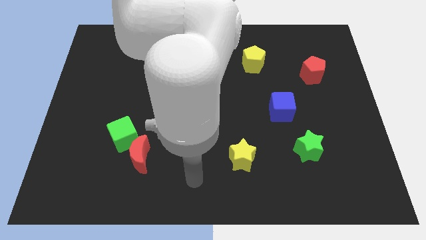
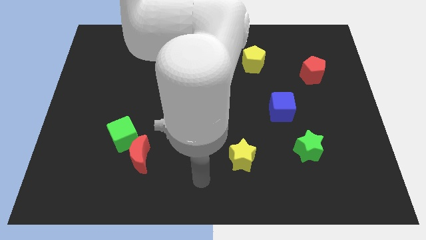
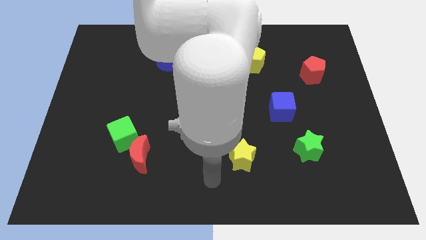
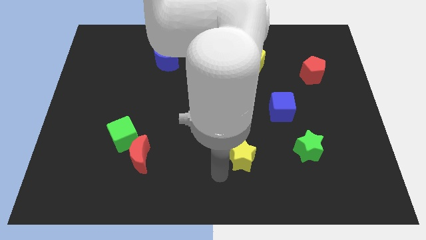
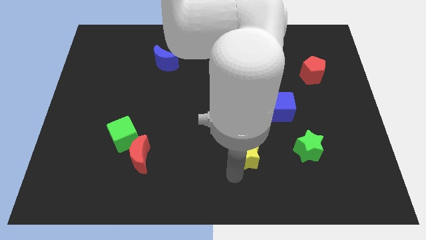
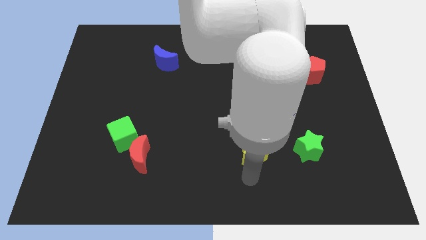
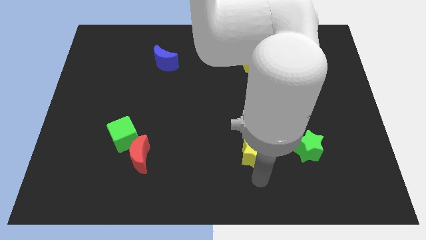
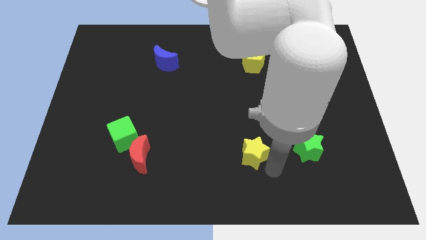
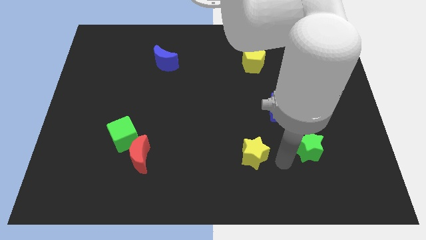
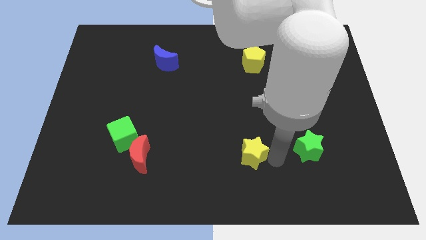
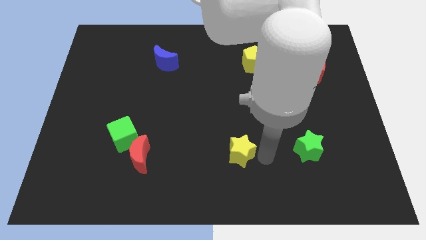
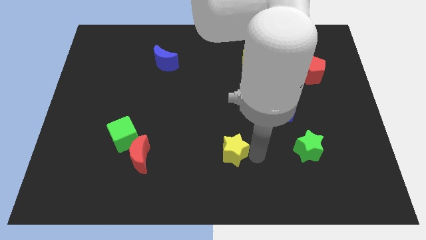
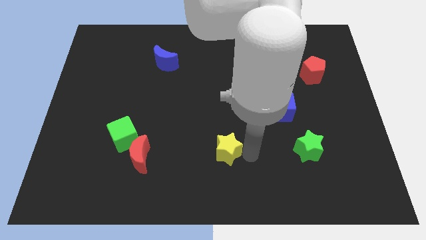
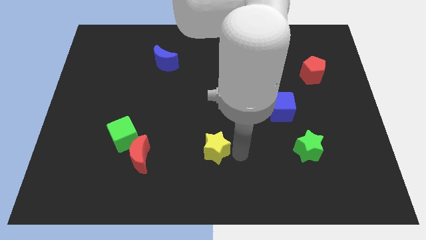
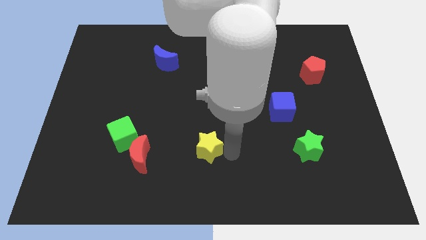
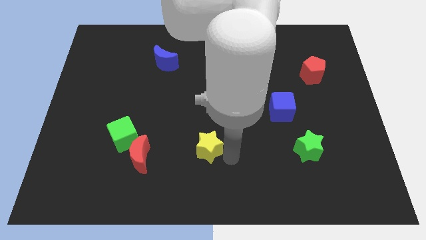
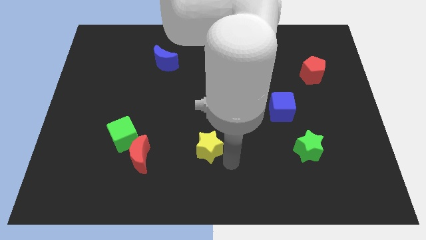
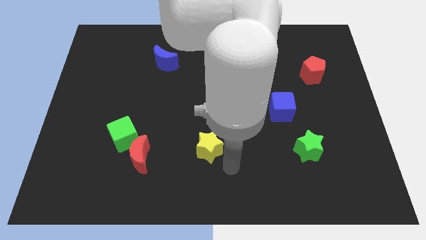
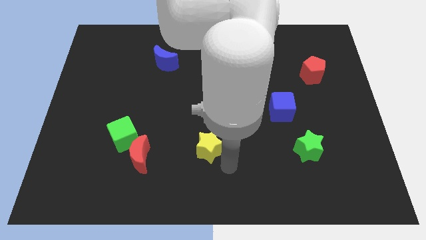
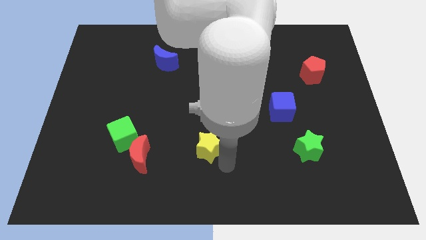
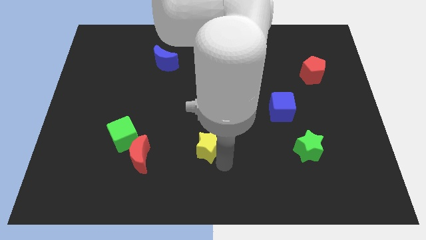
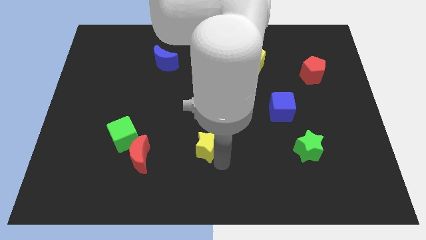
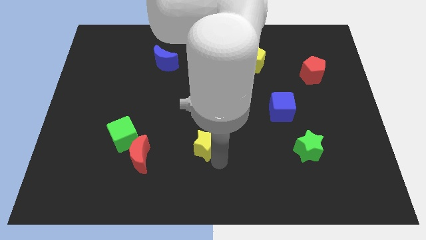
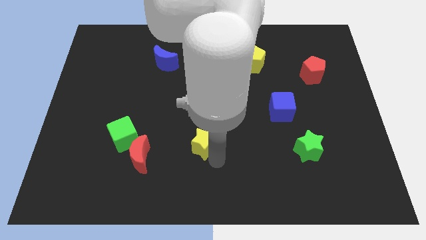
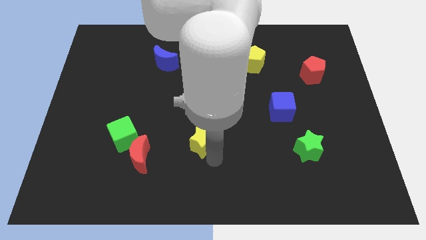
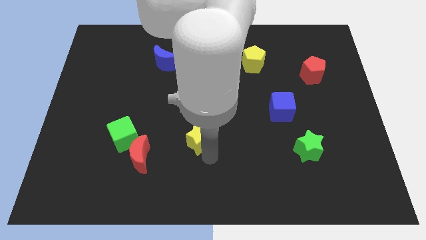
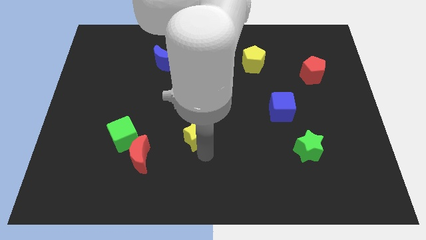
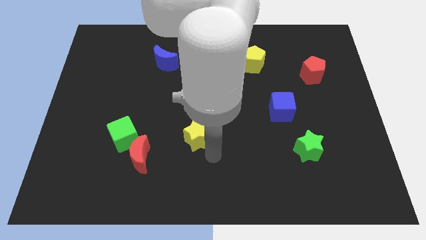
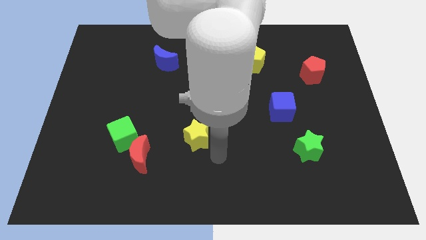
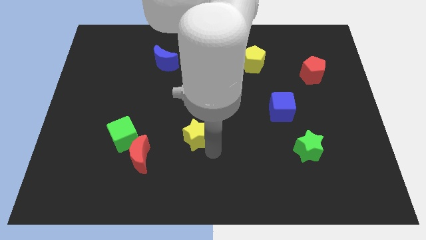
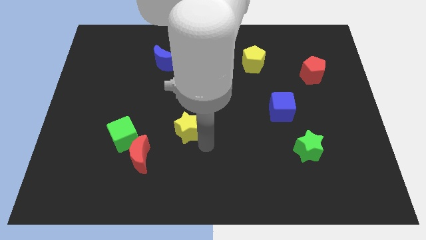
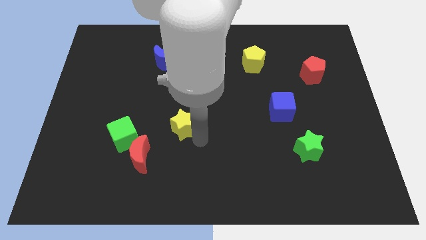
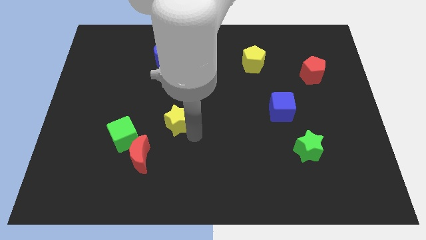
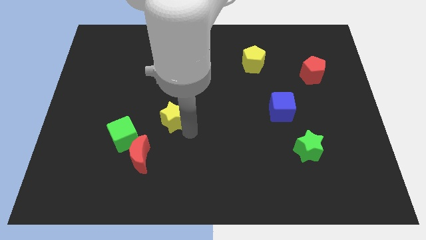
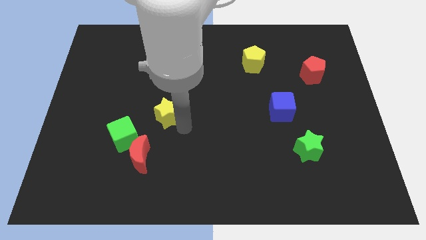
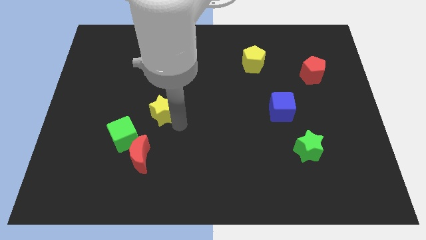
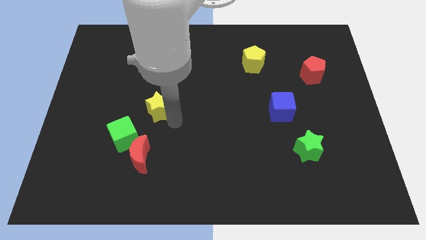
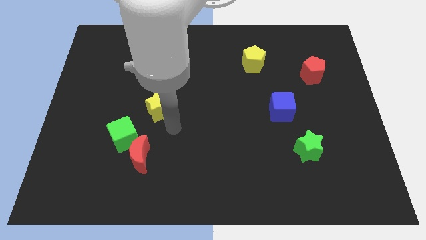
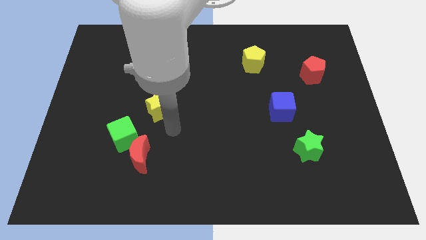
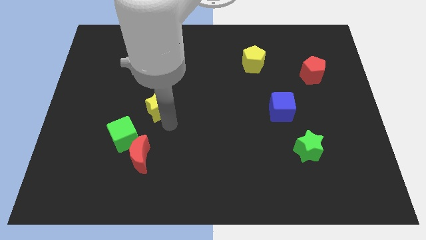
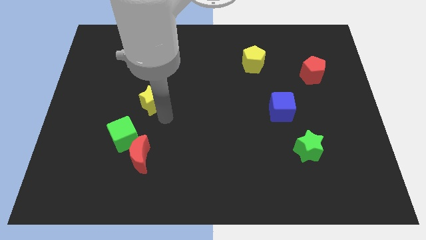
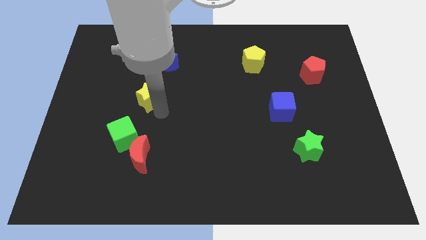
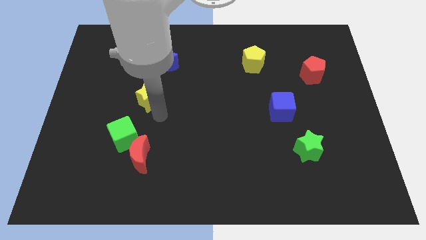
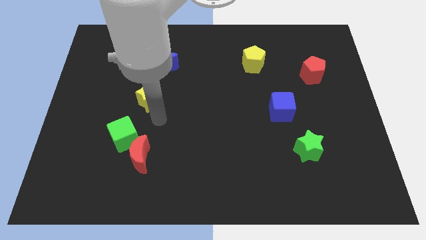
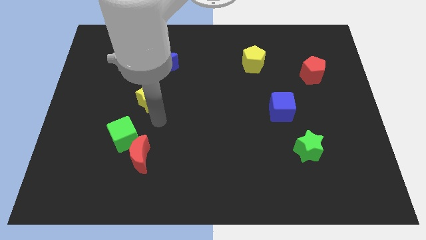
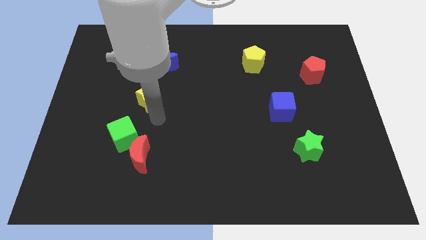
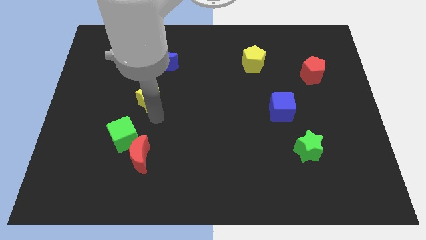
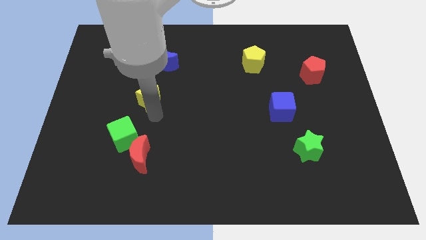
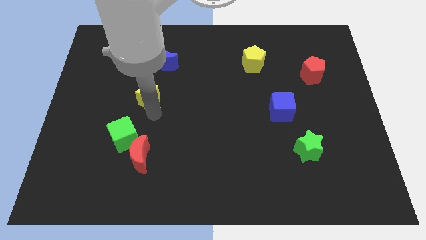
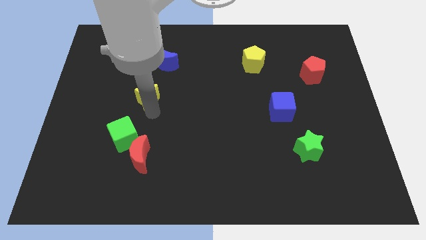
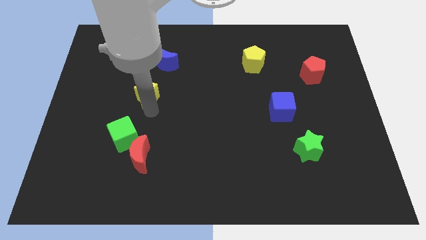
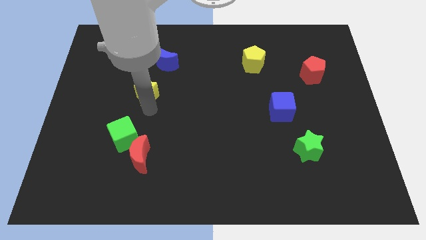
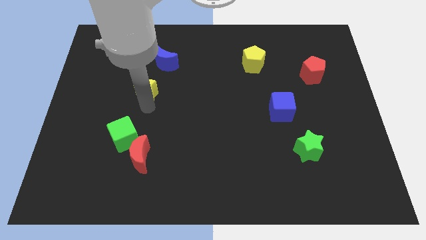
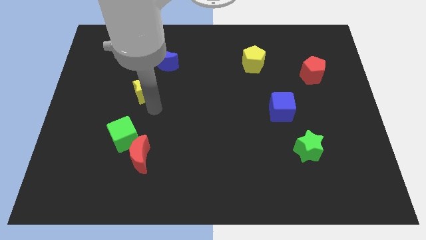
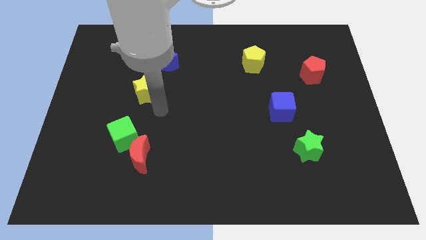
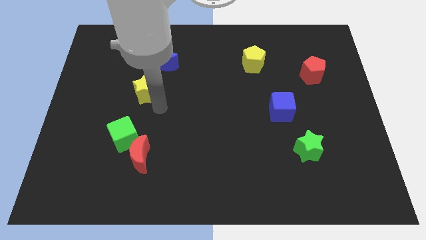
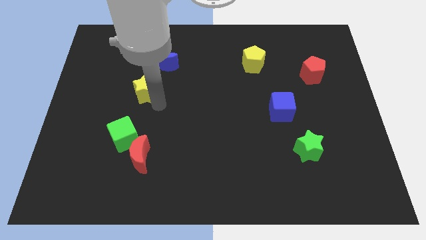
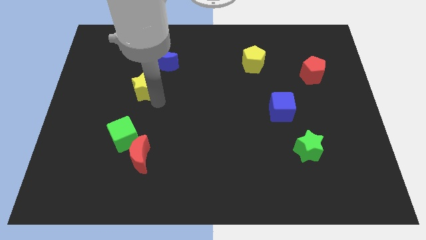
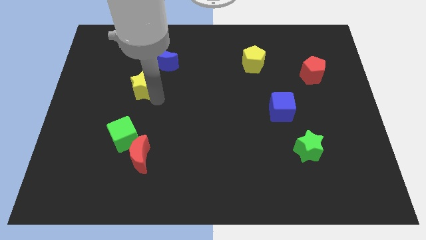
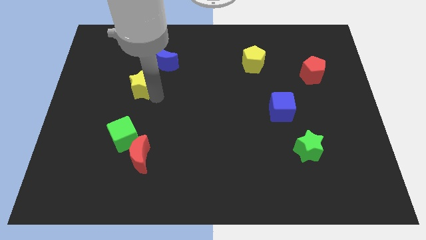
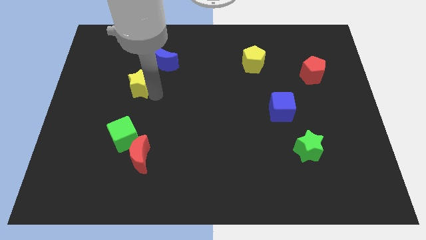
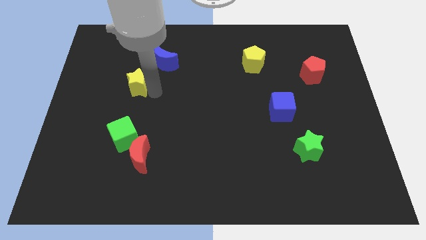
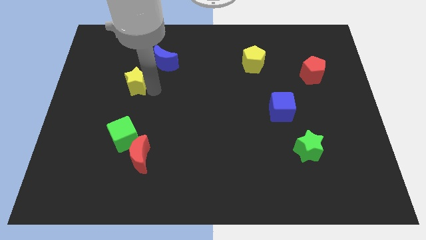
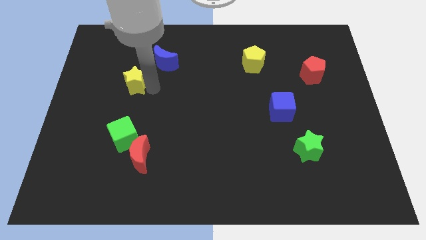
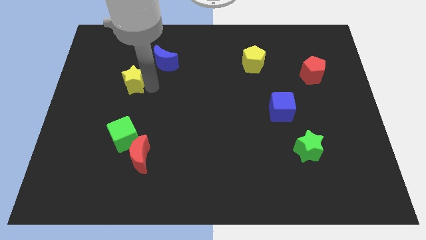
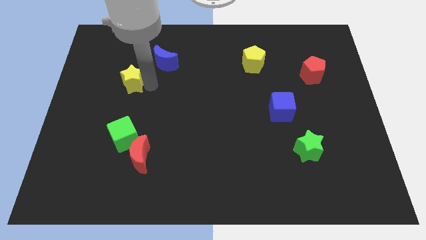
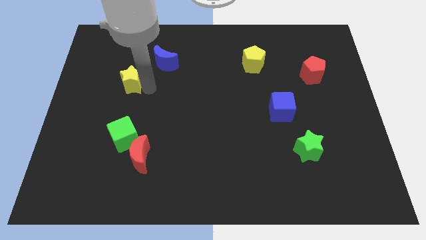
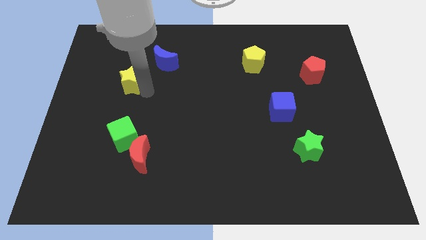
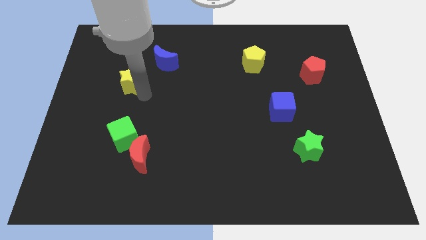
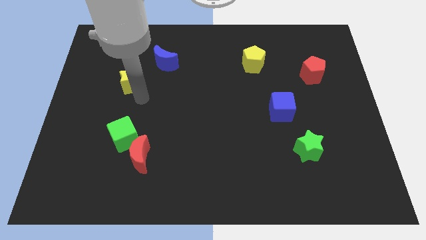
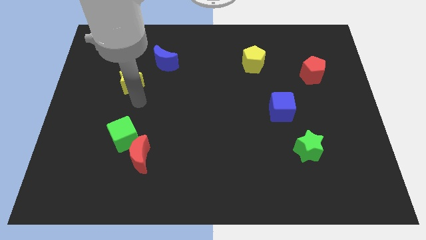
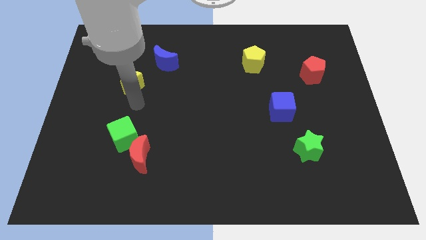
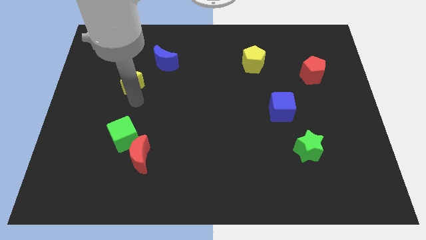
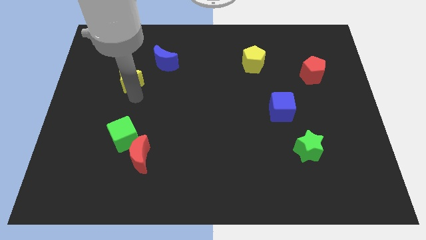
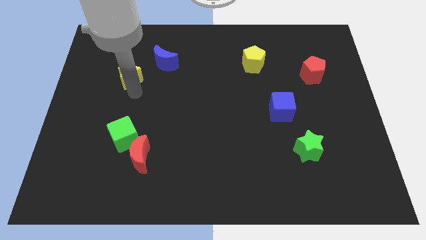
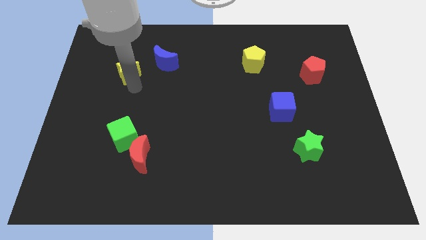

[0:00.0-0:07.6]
move the yellow star to the left of the blue moon
